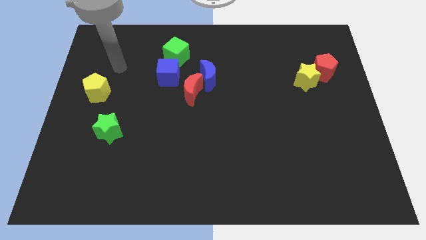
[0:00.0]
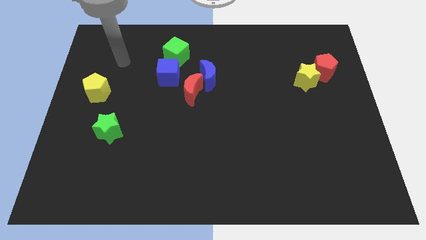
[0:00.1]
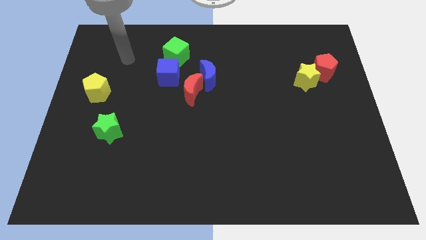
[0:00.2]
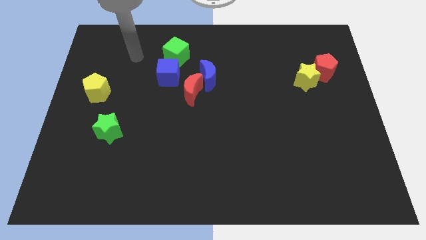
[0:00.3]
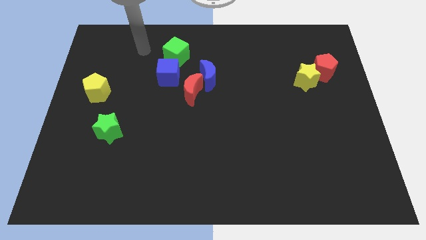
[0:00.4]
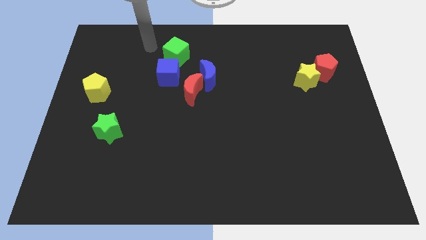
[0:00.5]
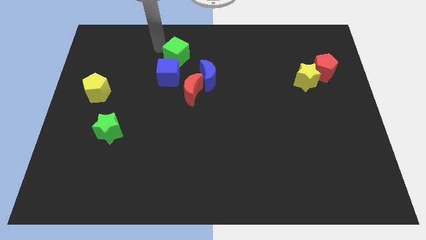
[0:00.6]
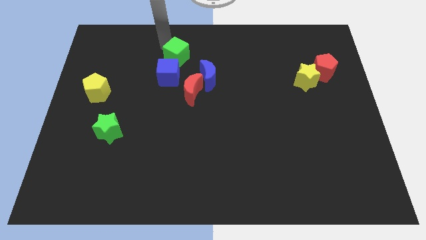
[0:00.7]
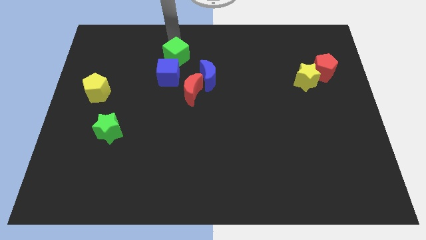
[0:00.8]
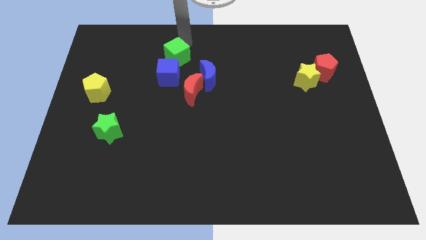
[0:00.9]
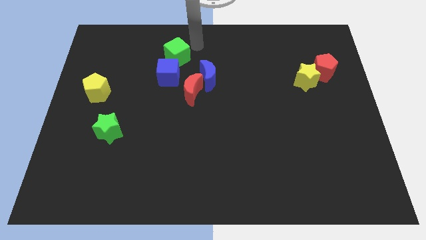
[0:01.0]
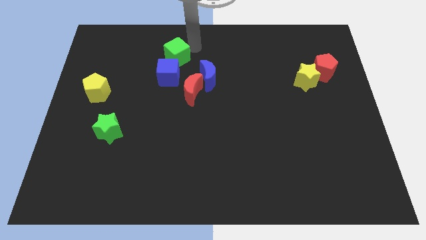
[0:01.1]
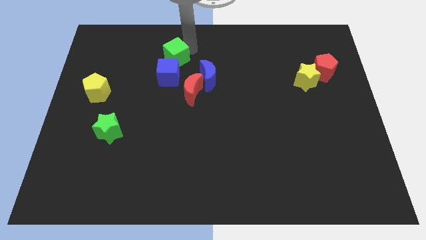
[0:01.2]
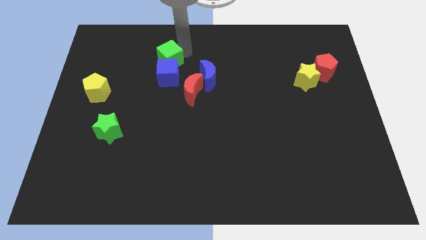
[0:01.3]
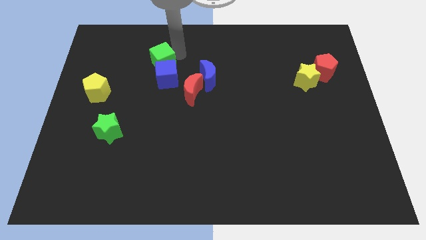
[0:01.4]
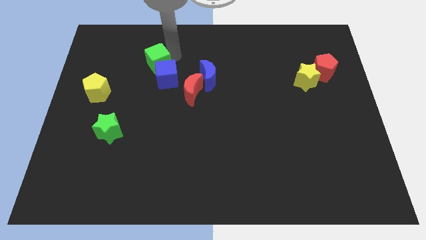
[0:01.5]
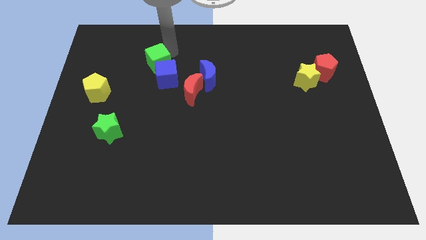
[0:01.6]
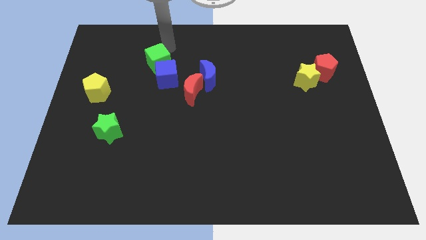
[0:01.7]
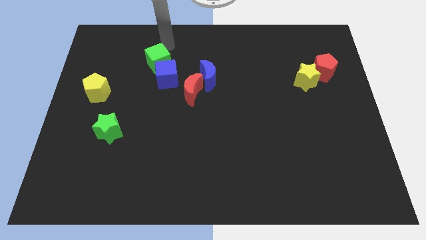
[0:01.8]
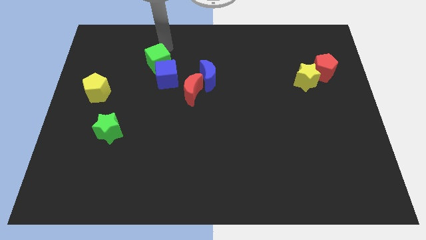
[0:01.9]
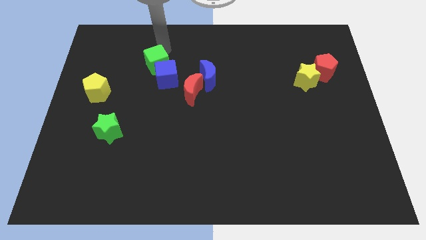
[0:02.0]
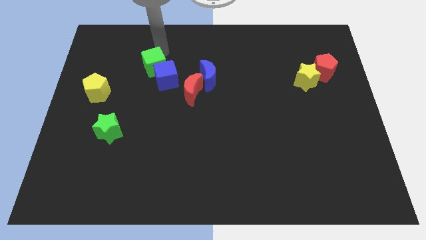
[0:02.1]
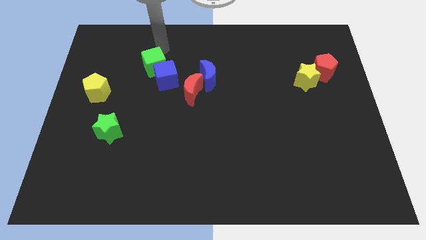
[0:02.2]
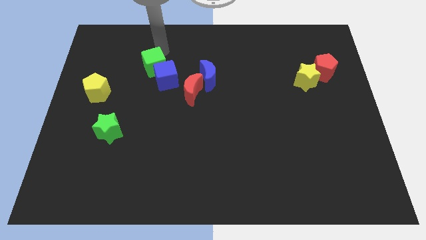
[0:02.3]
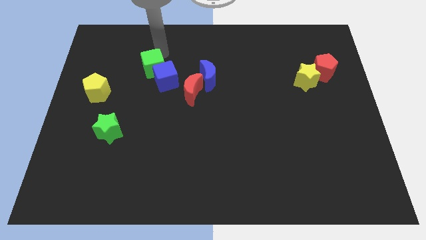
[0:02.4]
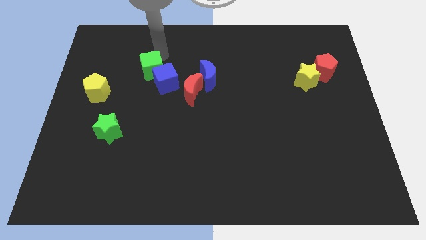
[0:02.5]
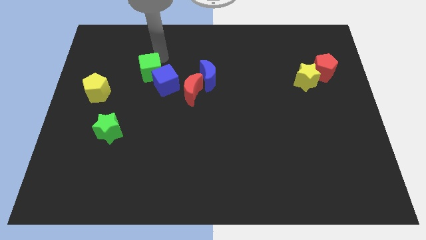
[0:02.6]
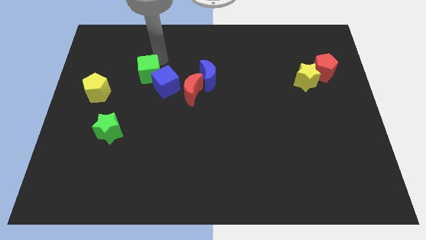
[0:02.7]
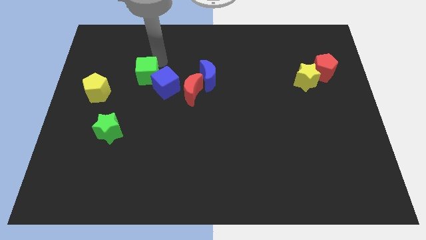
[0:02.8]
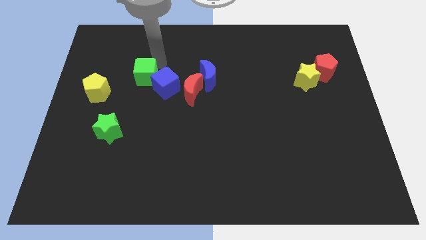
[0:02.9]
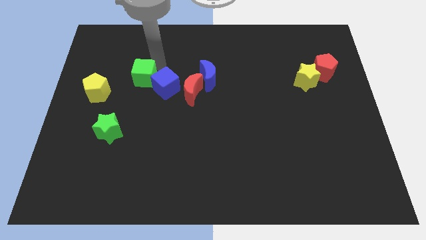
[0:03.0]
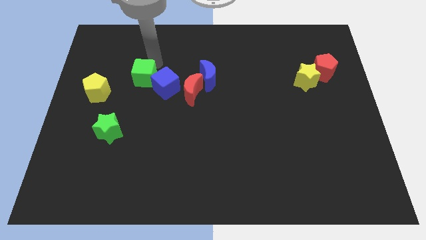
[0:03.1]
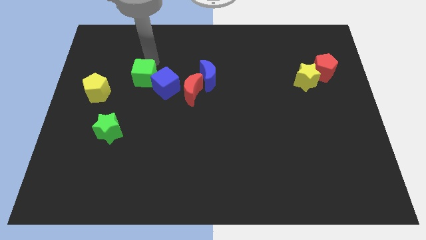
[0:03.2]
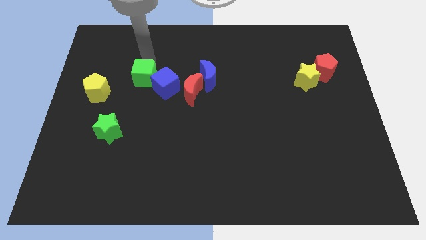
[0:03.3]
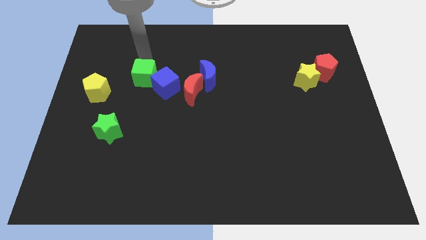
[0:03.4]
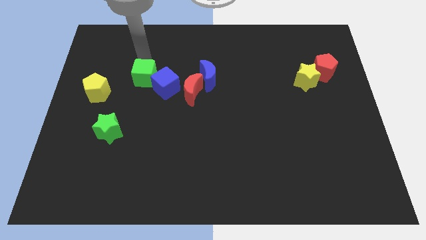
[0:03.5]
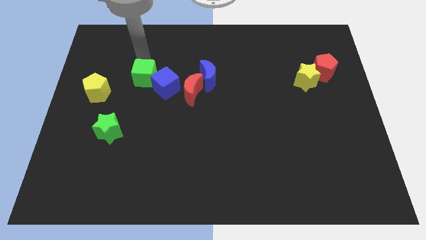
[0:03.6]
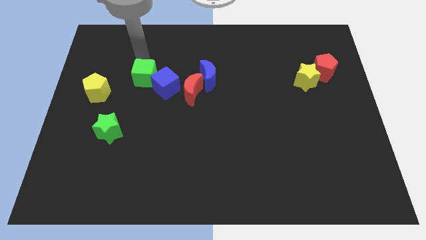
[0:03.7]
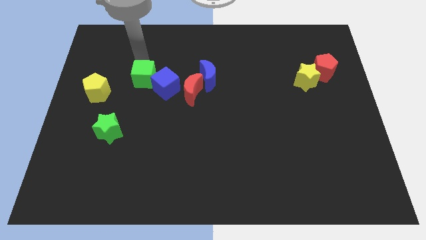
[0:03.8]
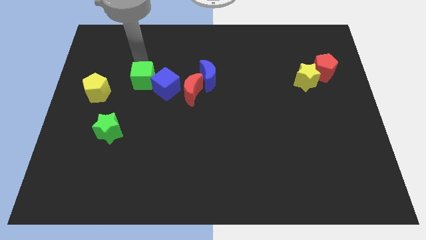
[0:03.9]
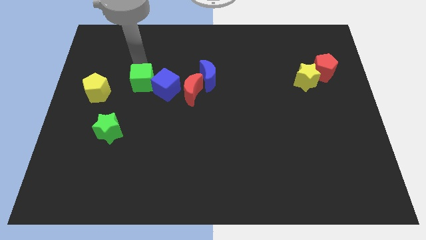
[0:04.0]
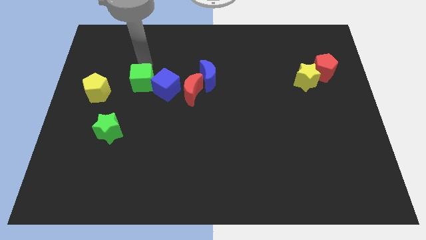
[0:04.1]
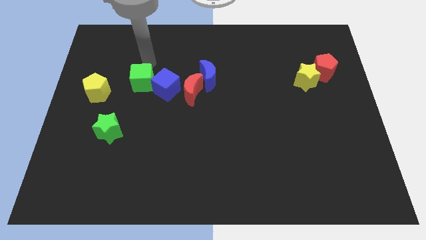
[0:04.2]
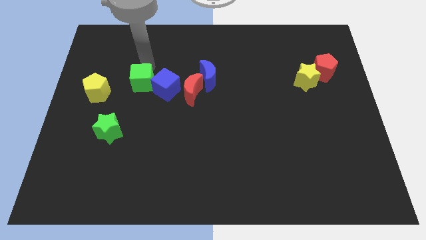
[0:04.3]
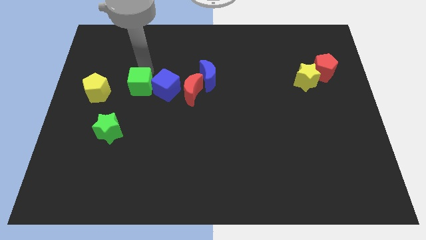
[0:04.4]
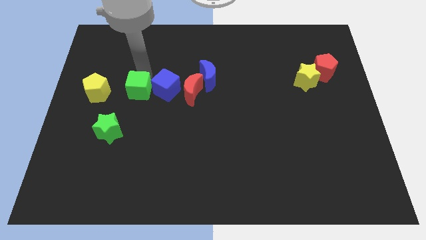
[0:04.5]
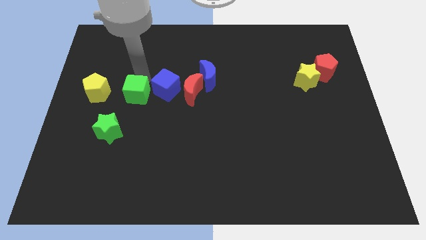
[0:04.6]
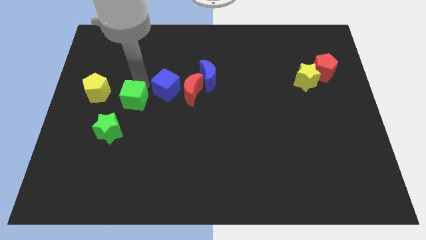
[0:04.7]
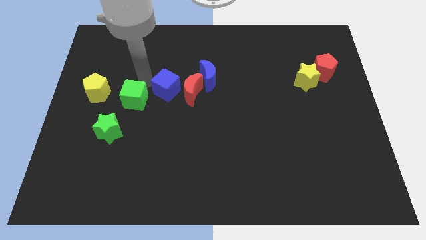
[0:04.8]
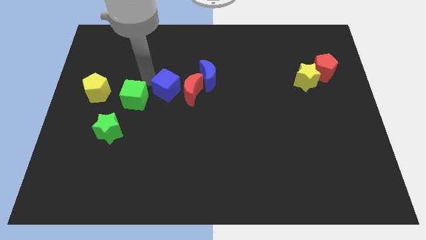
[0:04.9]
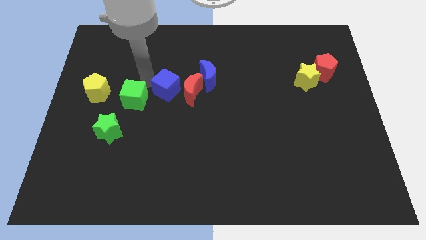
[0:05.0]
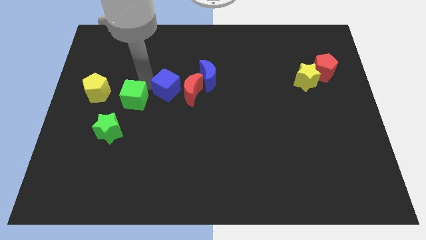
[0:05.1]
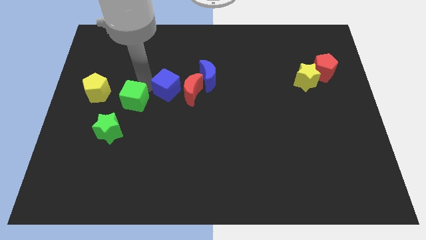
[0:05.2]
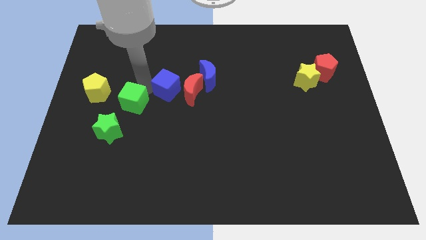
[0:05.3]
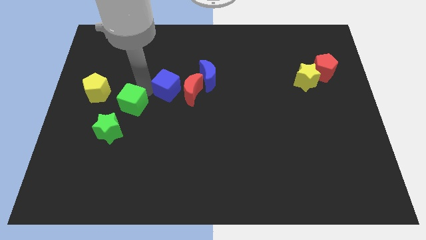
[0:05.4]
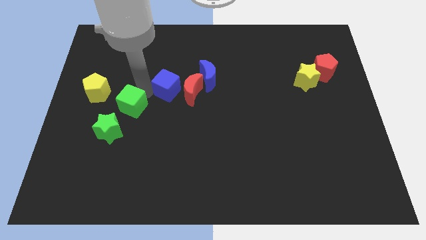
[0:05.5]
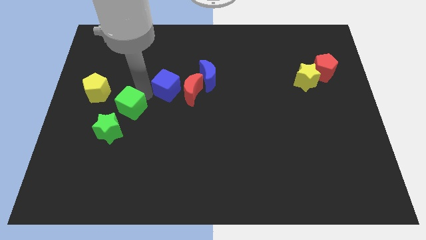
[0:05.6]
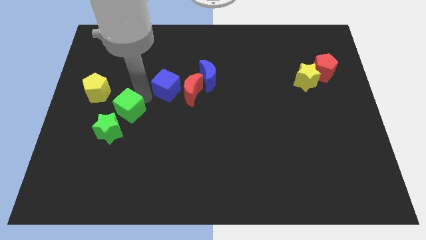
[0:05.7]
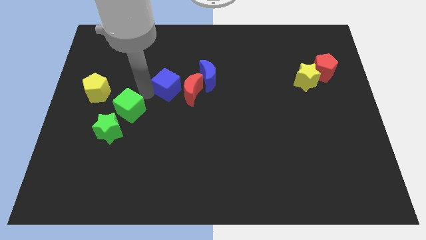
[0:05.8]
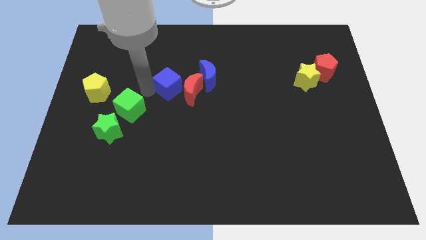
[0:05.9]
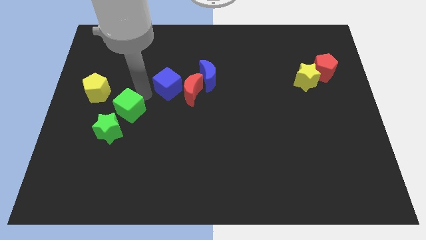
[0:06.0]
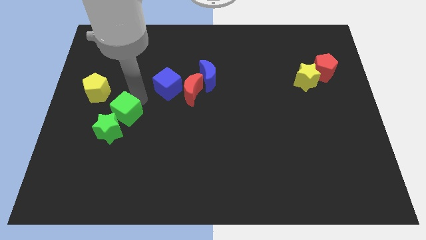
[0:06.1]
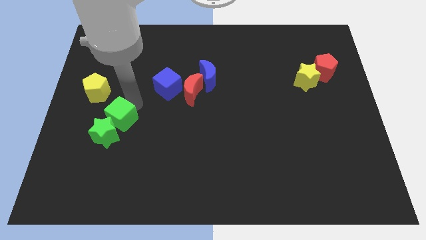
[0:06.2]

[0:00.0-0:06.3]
move the green cube close to the green star
